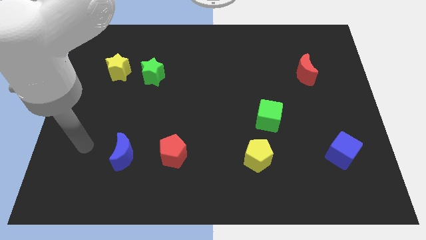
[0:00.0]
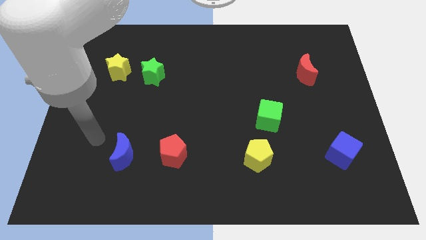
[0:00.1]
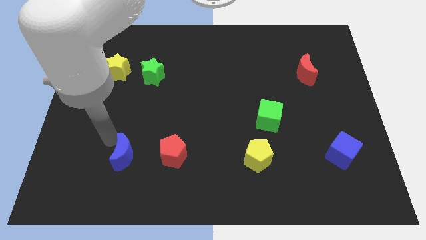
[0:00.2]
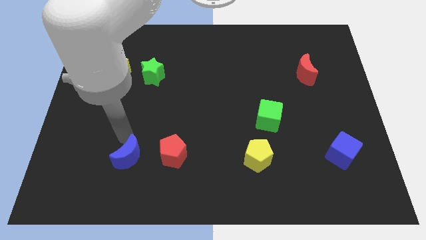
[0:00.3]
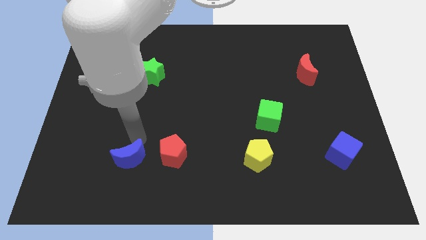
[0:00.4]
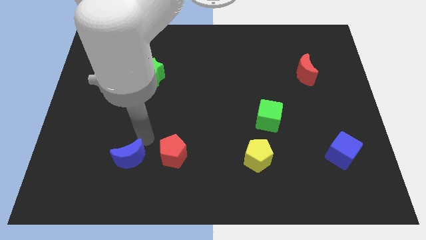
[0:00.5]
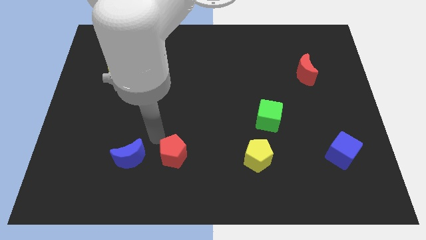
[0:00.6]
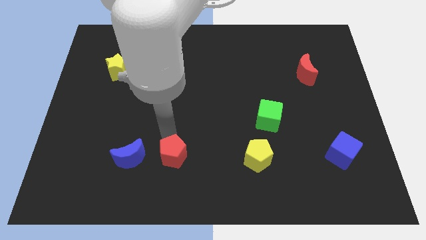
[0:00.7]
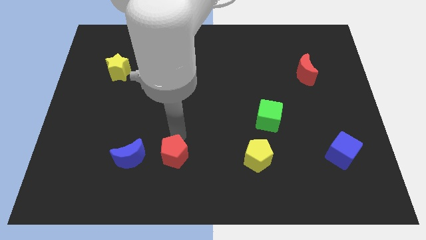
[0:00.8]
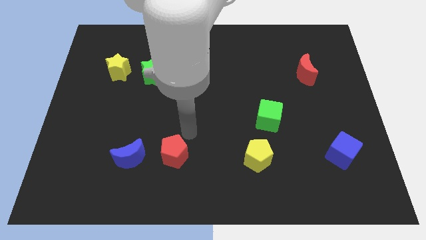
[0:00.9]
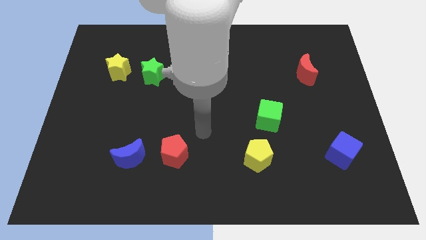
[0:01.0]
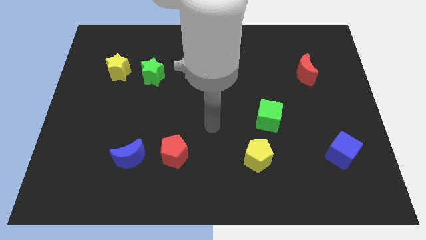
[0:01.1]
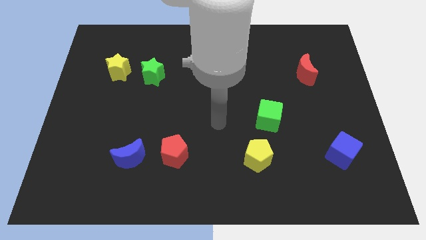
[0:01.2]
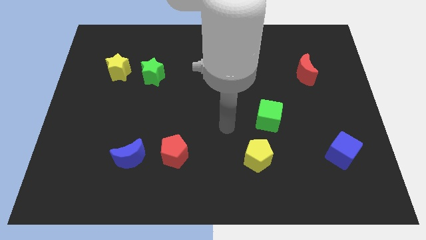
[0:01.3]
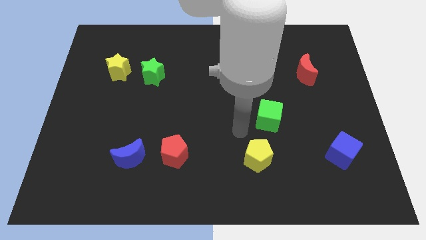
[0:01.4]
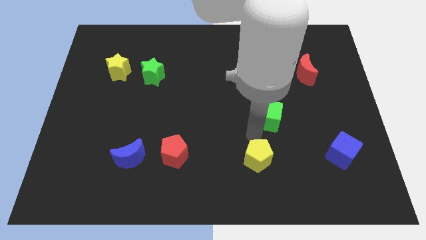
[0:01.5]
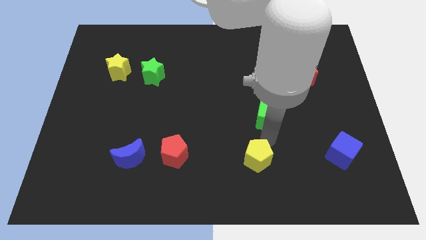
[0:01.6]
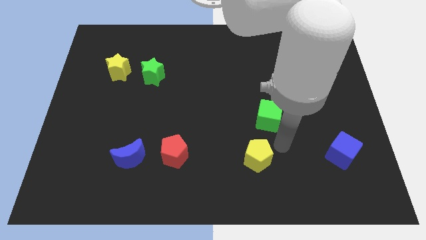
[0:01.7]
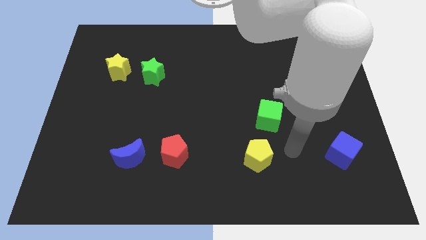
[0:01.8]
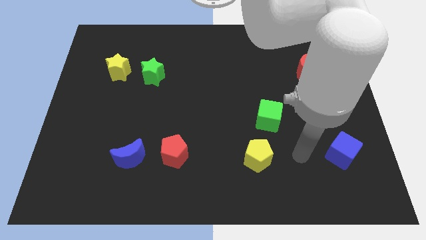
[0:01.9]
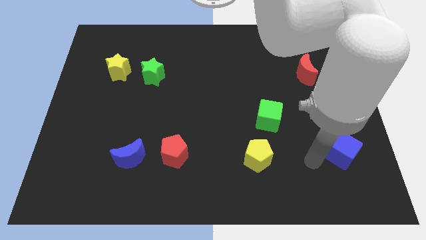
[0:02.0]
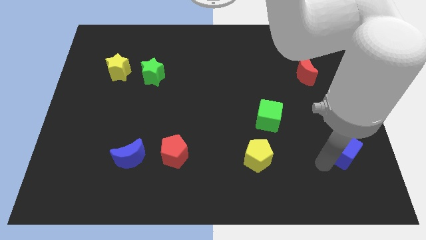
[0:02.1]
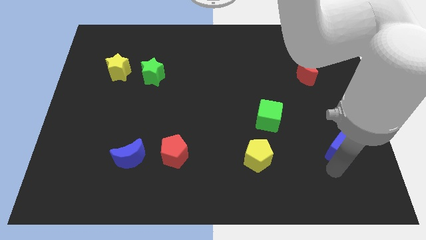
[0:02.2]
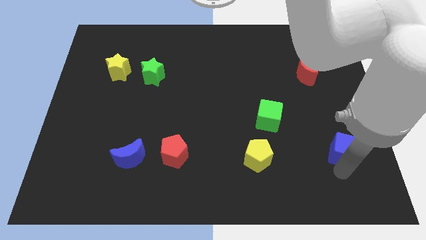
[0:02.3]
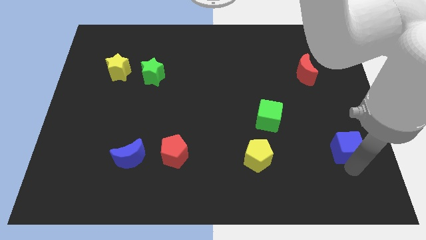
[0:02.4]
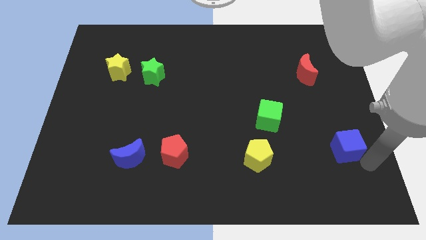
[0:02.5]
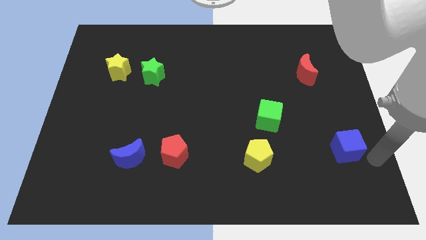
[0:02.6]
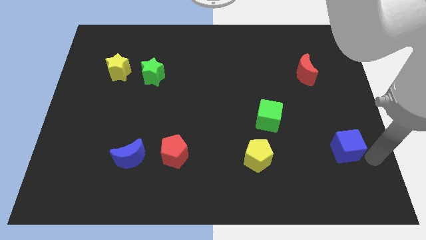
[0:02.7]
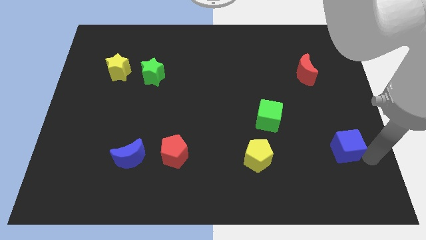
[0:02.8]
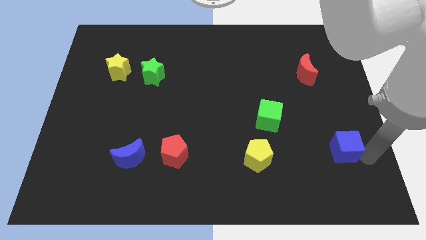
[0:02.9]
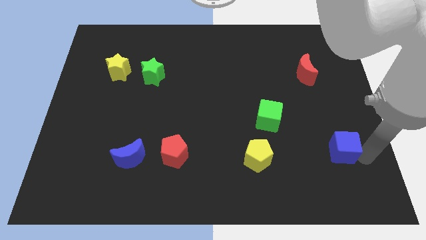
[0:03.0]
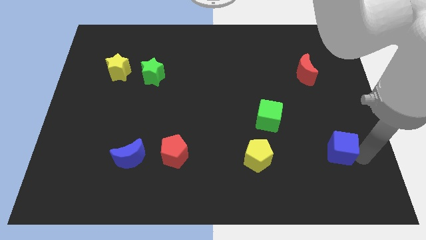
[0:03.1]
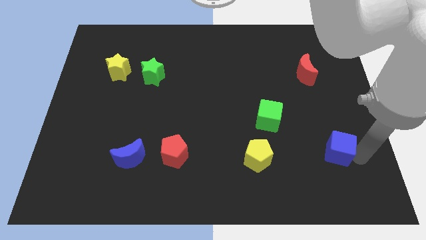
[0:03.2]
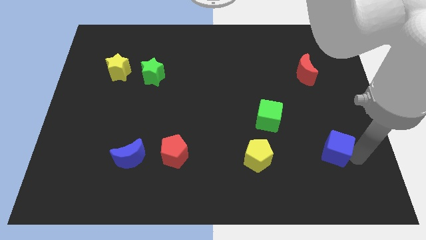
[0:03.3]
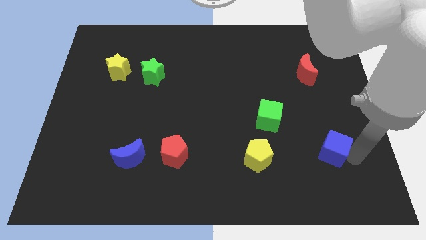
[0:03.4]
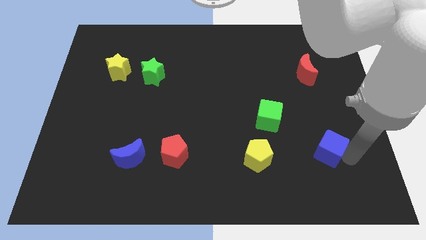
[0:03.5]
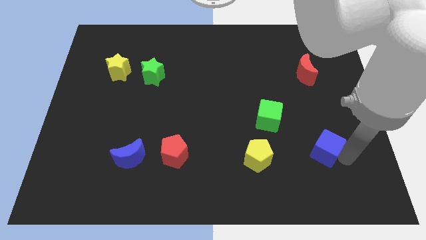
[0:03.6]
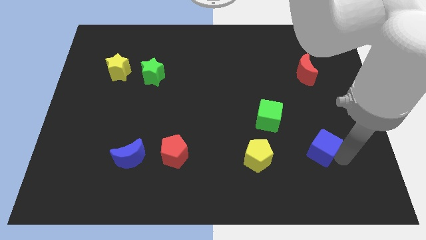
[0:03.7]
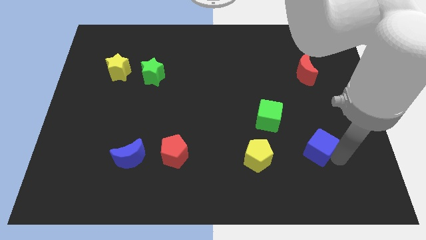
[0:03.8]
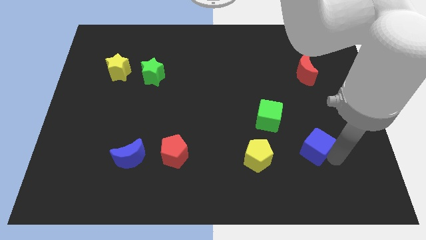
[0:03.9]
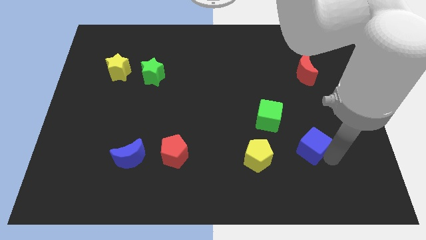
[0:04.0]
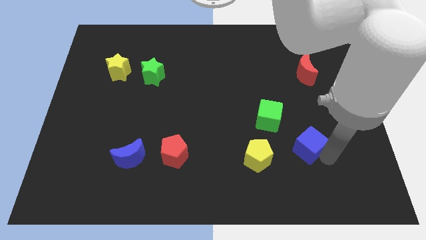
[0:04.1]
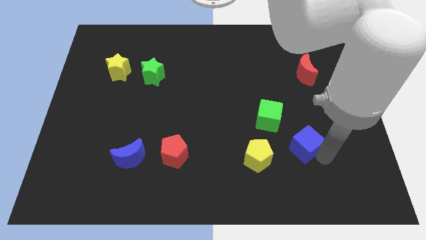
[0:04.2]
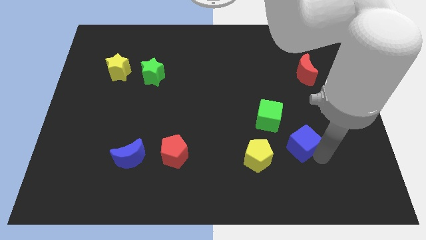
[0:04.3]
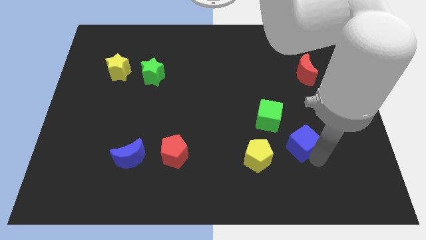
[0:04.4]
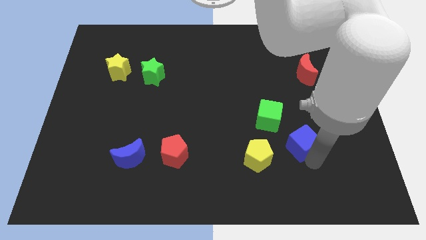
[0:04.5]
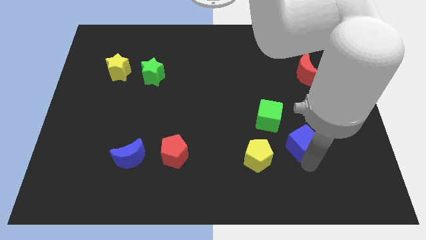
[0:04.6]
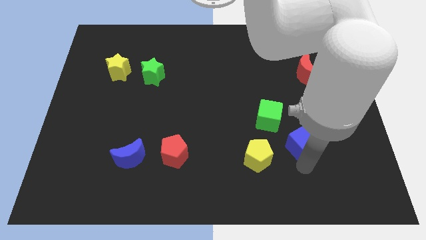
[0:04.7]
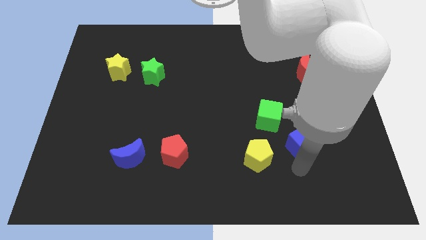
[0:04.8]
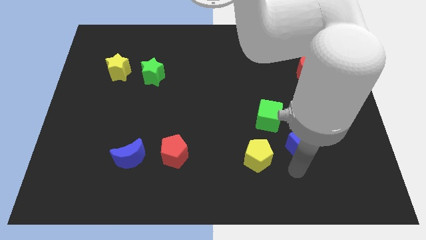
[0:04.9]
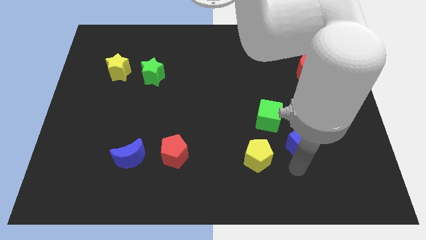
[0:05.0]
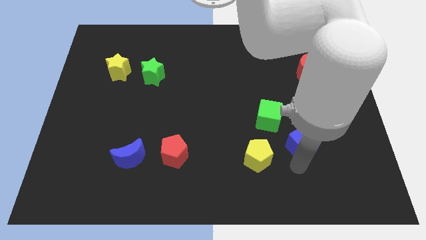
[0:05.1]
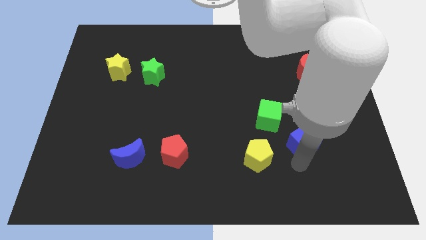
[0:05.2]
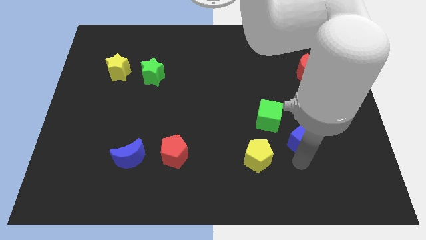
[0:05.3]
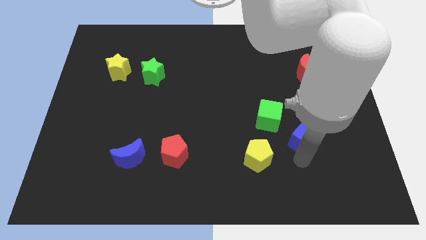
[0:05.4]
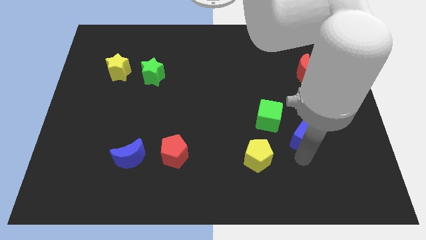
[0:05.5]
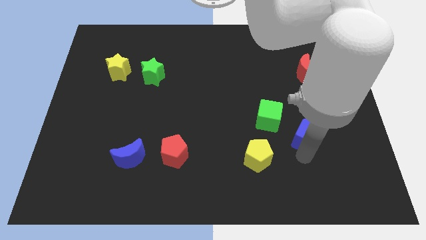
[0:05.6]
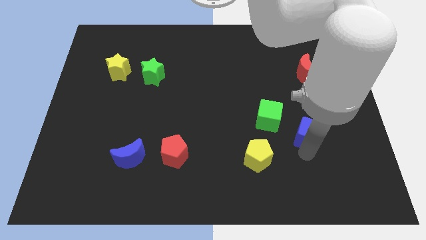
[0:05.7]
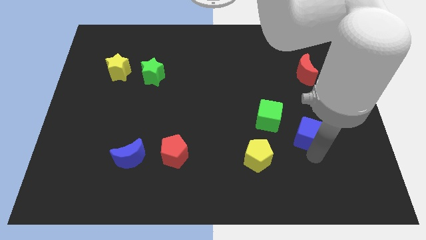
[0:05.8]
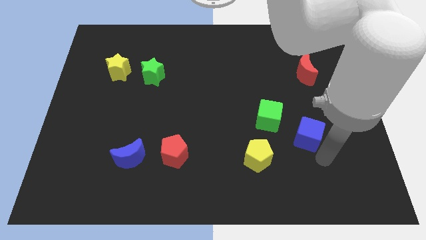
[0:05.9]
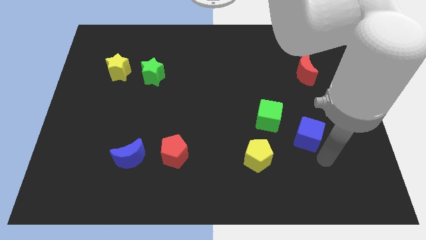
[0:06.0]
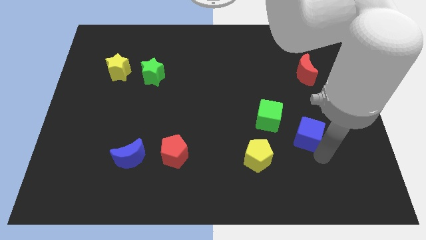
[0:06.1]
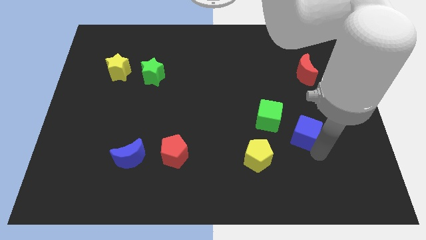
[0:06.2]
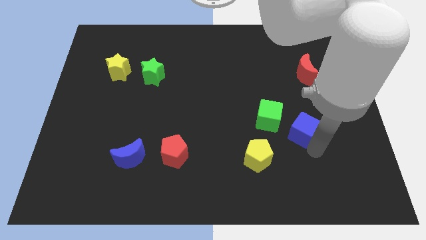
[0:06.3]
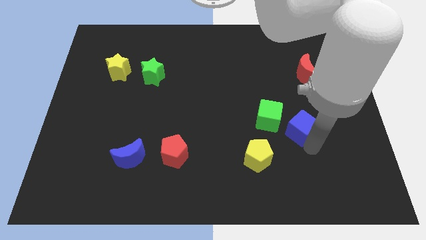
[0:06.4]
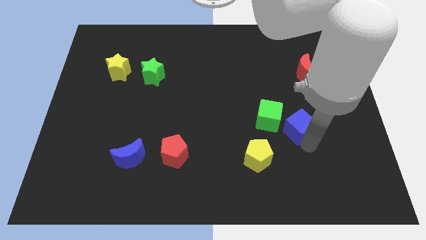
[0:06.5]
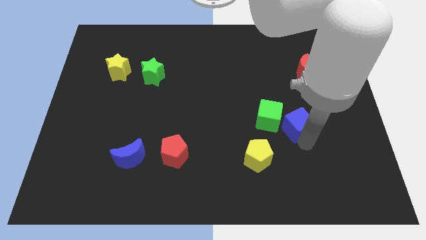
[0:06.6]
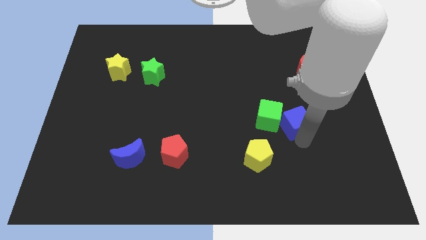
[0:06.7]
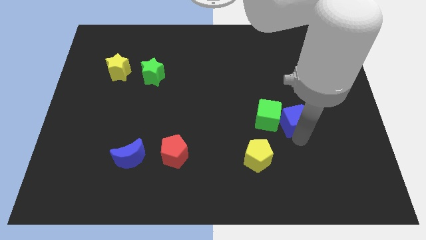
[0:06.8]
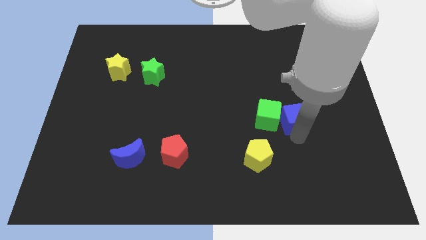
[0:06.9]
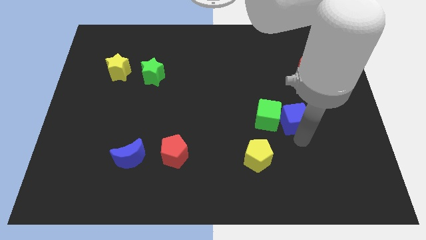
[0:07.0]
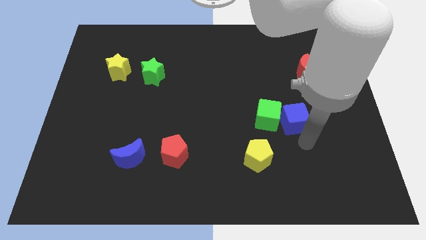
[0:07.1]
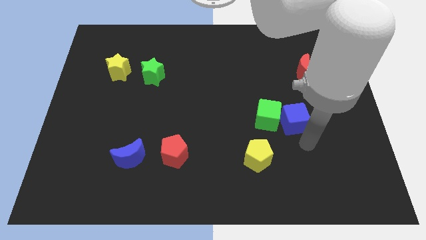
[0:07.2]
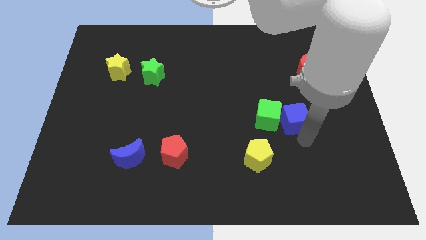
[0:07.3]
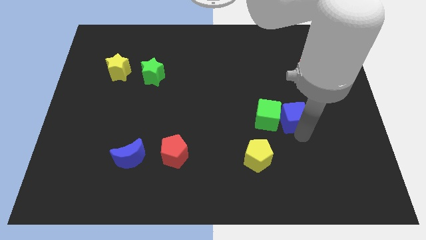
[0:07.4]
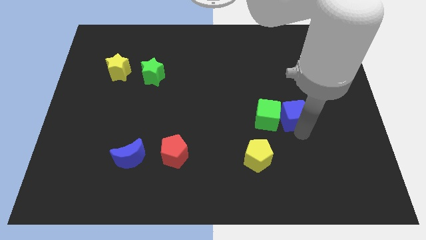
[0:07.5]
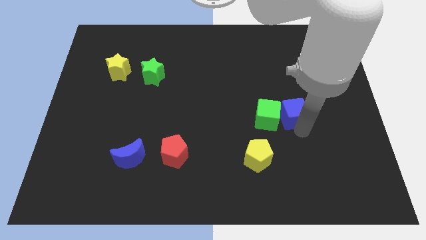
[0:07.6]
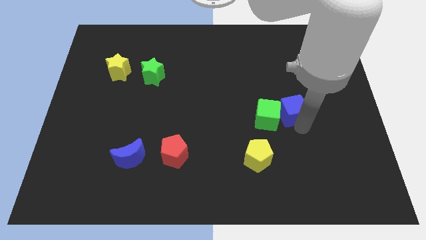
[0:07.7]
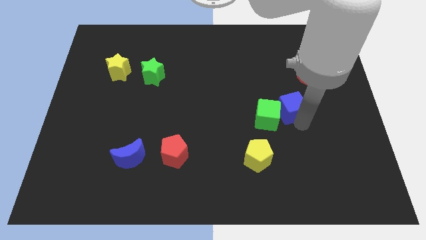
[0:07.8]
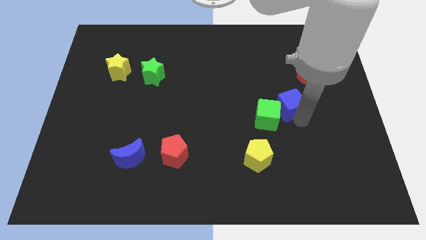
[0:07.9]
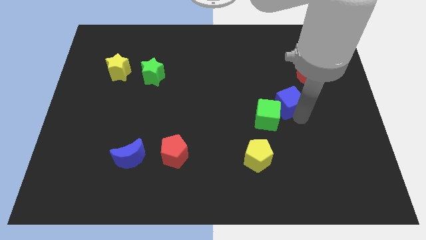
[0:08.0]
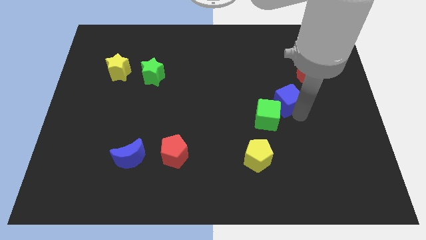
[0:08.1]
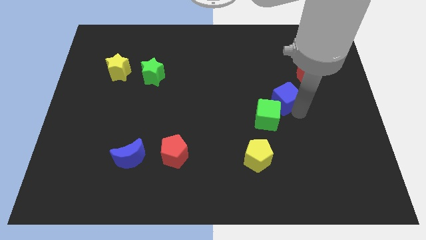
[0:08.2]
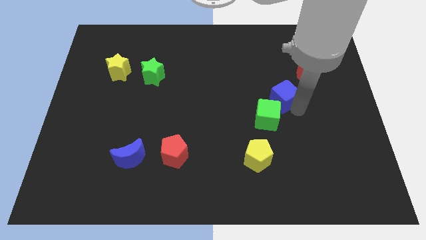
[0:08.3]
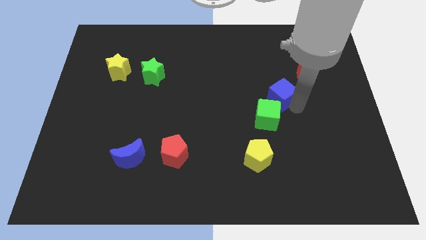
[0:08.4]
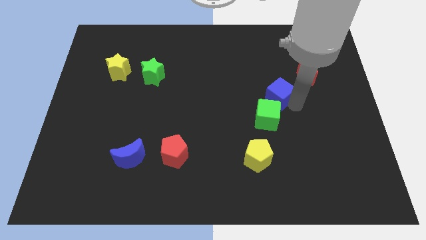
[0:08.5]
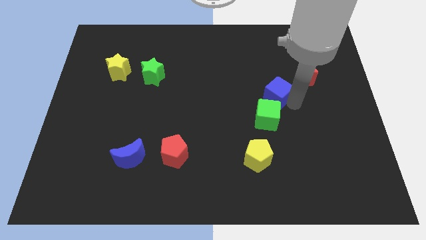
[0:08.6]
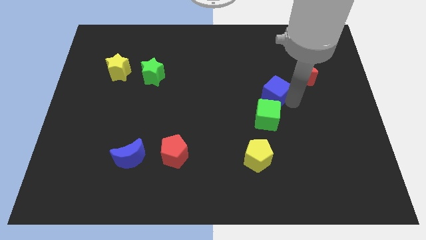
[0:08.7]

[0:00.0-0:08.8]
push the blue cube upwards and to the left
